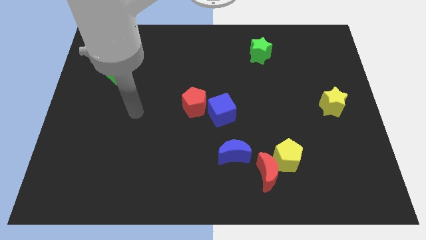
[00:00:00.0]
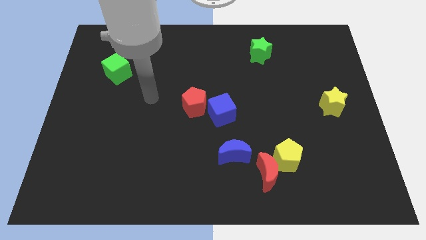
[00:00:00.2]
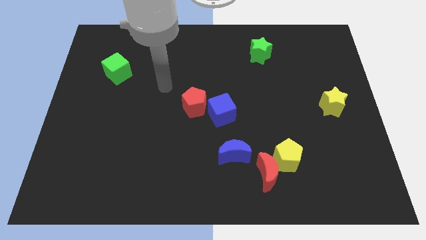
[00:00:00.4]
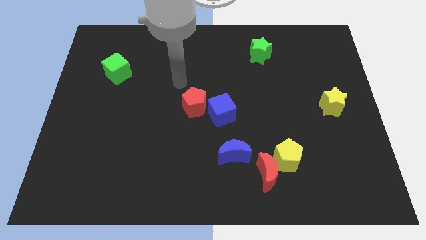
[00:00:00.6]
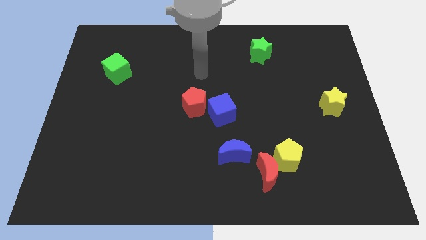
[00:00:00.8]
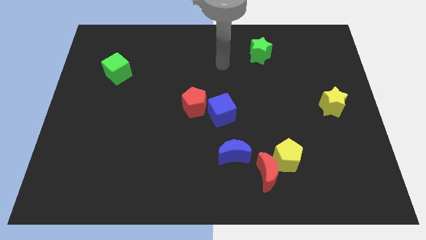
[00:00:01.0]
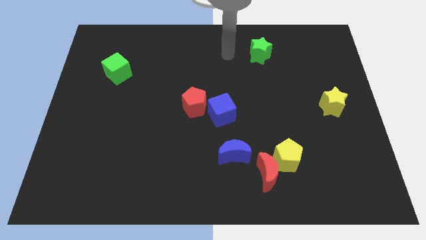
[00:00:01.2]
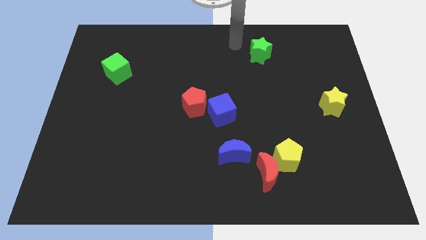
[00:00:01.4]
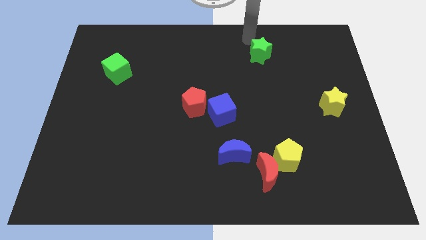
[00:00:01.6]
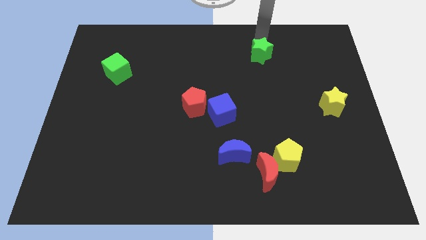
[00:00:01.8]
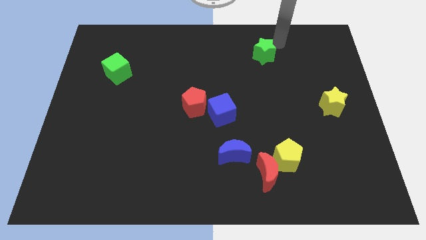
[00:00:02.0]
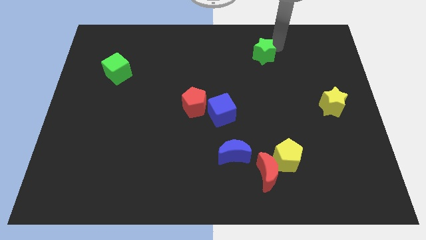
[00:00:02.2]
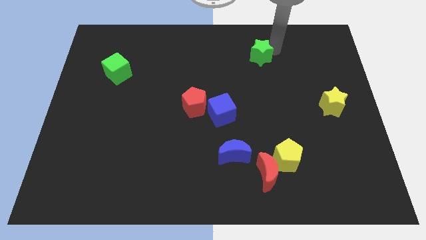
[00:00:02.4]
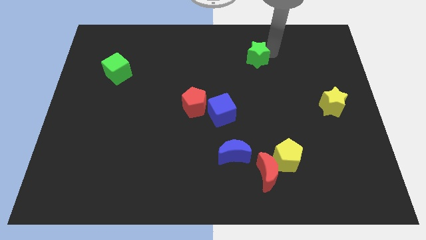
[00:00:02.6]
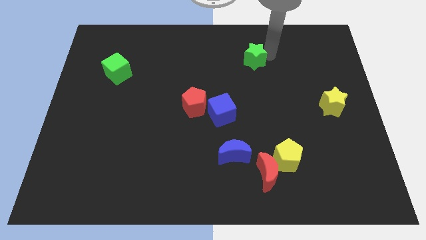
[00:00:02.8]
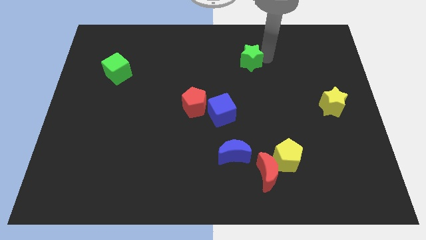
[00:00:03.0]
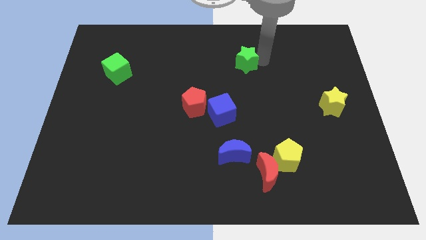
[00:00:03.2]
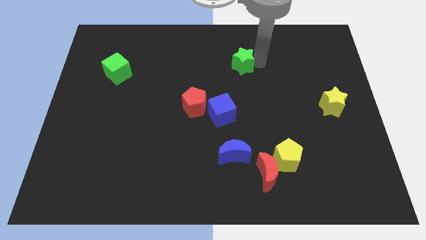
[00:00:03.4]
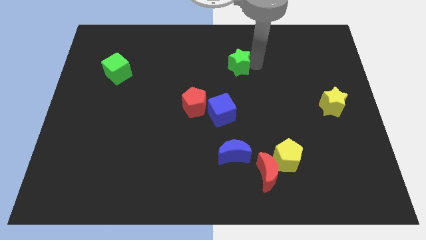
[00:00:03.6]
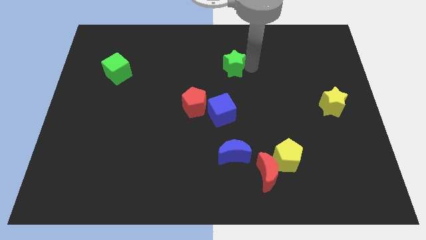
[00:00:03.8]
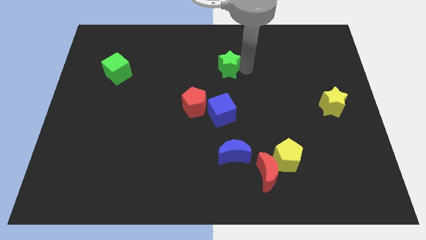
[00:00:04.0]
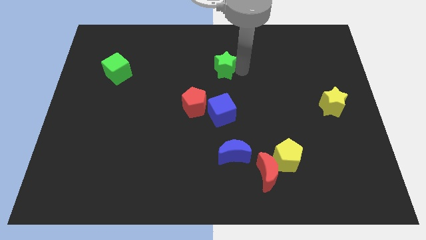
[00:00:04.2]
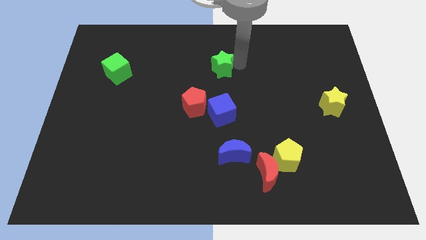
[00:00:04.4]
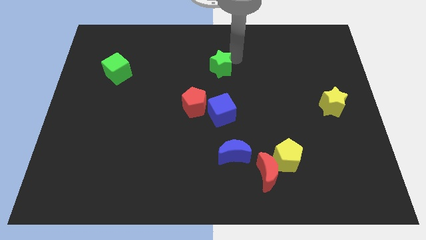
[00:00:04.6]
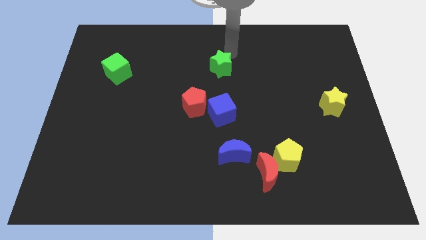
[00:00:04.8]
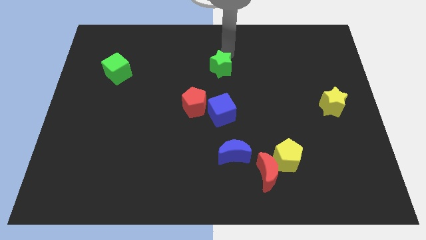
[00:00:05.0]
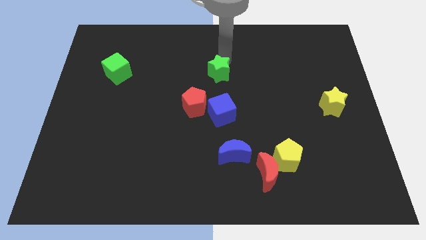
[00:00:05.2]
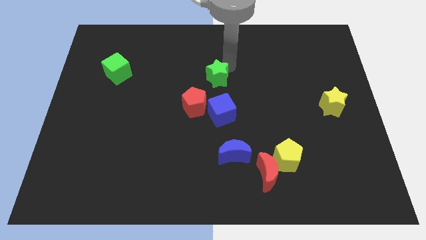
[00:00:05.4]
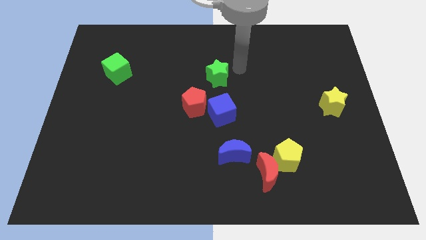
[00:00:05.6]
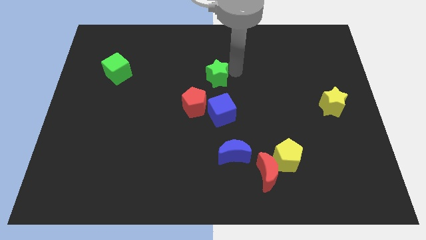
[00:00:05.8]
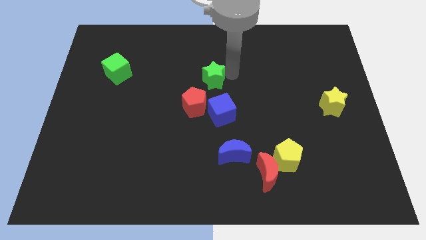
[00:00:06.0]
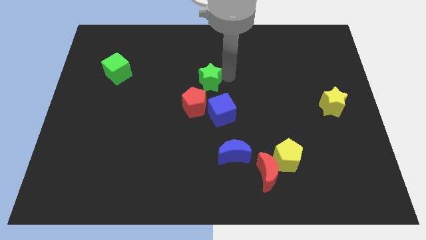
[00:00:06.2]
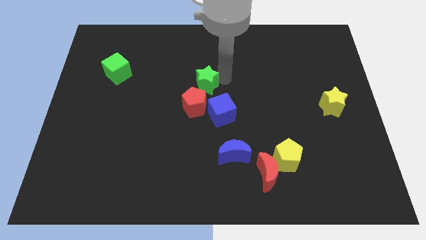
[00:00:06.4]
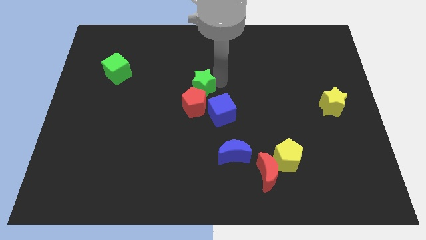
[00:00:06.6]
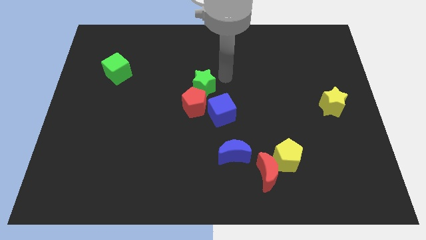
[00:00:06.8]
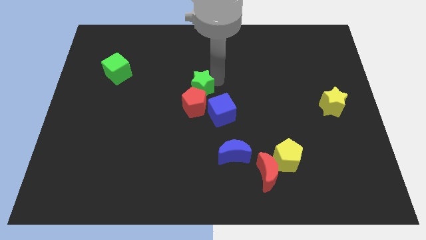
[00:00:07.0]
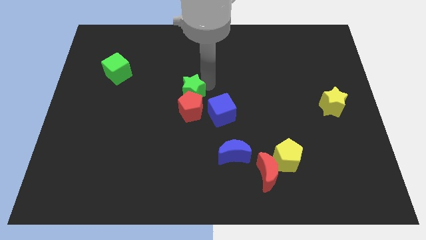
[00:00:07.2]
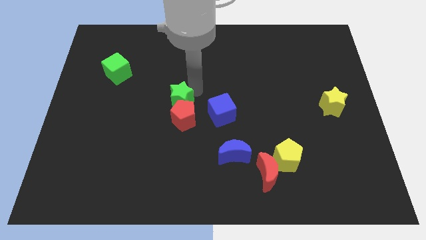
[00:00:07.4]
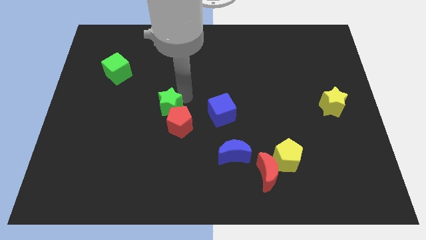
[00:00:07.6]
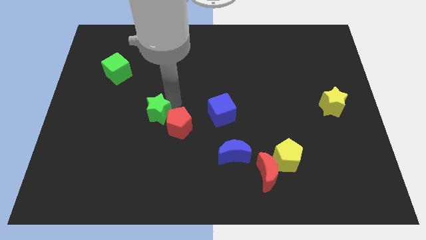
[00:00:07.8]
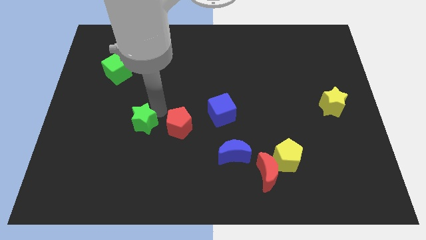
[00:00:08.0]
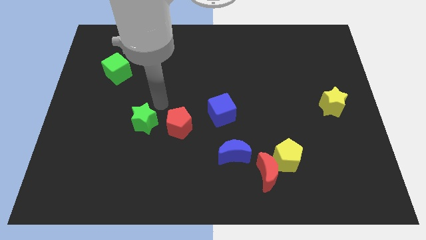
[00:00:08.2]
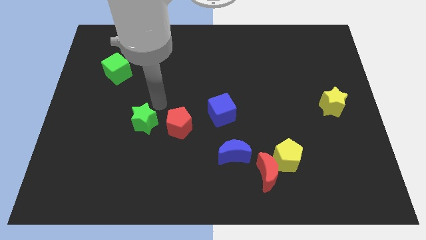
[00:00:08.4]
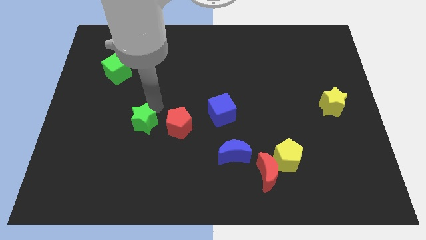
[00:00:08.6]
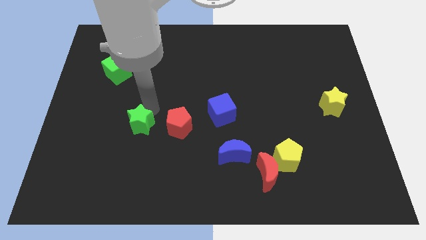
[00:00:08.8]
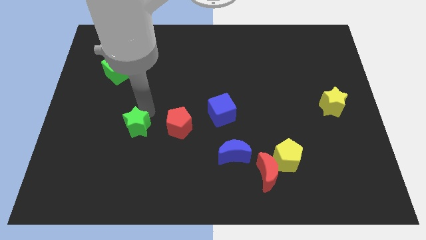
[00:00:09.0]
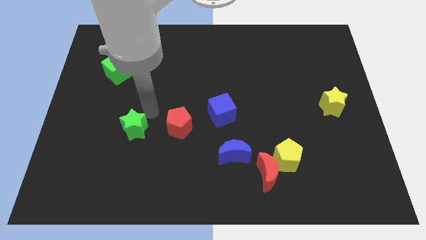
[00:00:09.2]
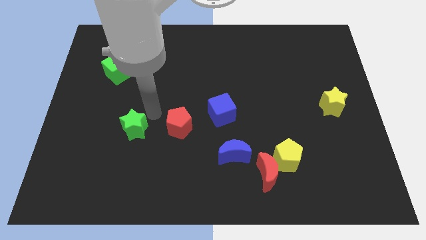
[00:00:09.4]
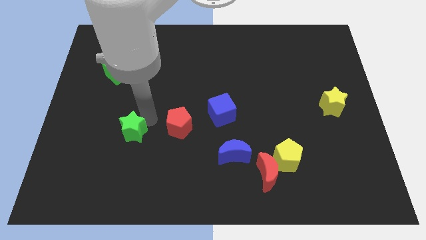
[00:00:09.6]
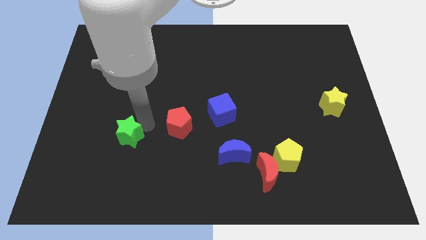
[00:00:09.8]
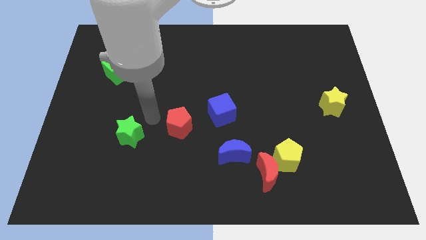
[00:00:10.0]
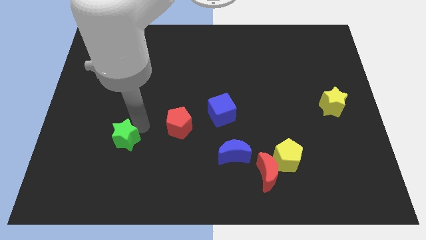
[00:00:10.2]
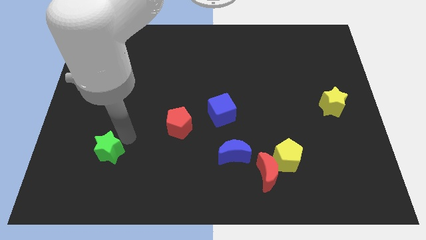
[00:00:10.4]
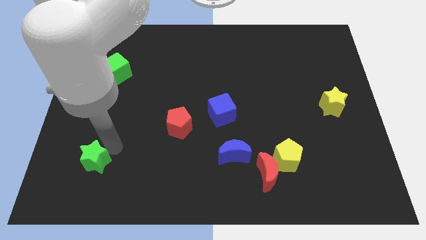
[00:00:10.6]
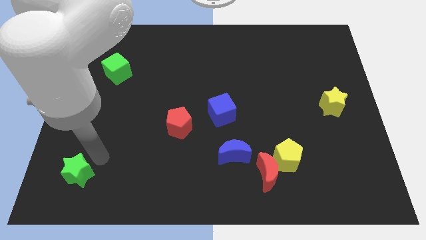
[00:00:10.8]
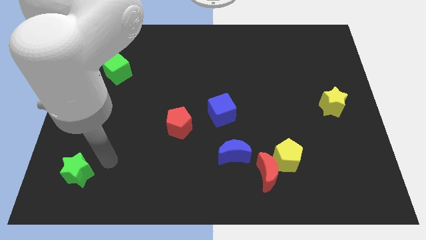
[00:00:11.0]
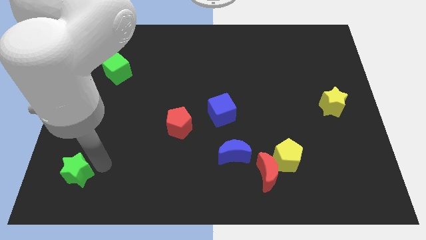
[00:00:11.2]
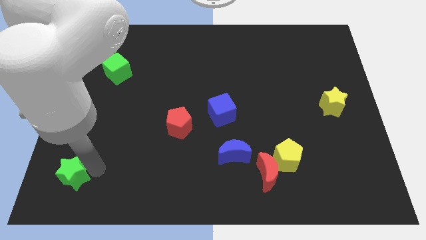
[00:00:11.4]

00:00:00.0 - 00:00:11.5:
put the green star to the bottom left

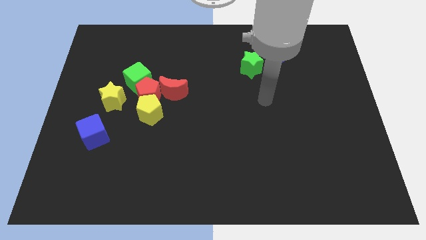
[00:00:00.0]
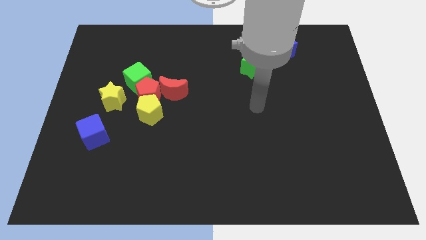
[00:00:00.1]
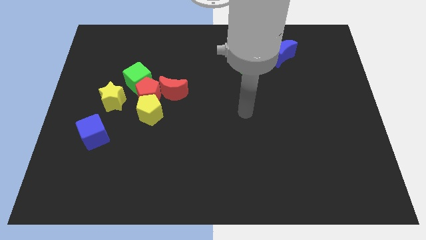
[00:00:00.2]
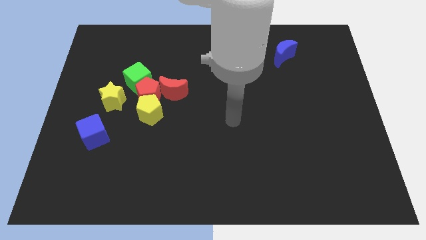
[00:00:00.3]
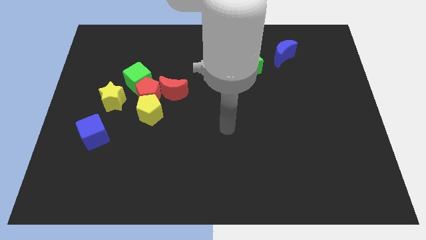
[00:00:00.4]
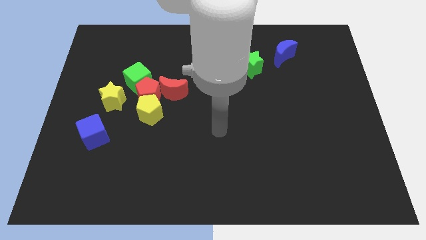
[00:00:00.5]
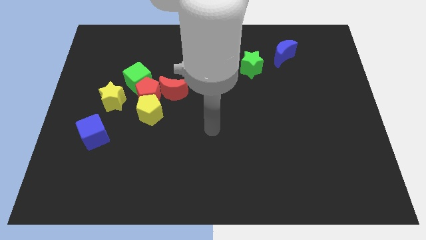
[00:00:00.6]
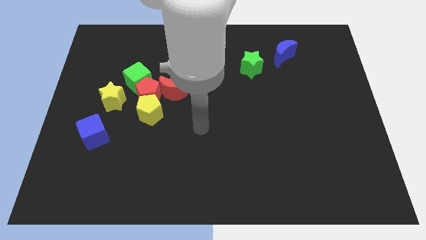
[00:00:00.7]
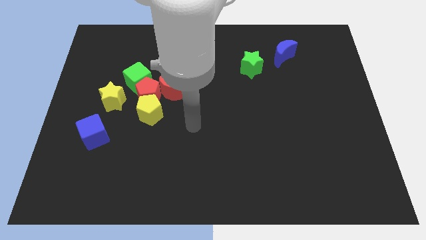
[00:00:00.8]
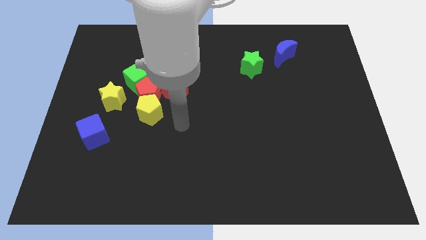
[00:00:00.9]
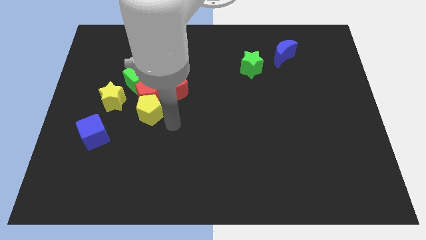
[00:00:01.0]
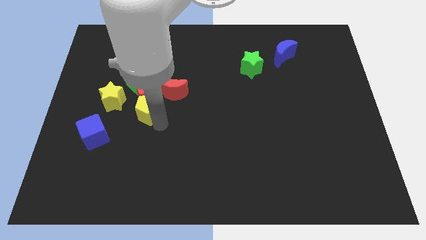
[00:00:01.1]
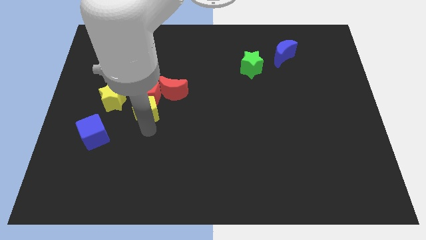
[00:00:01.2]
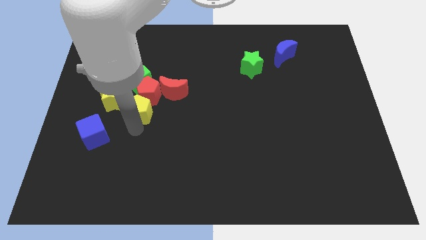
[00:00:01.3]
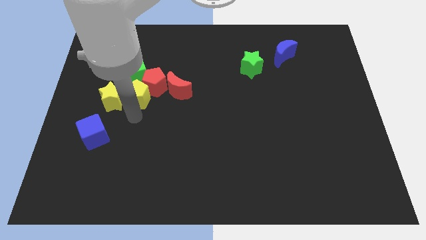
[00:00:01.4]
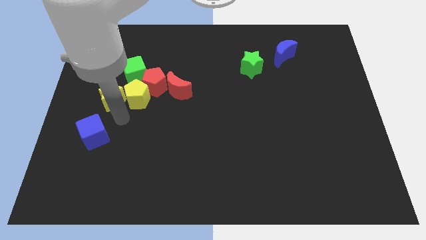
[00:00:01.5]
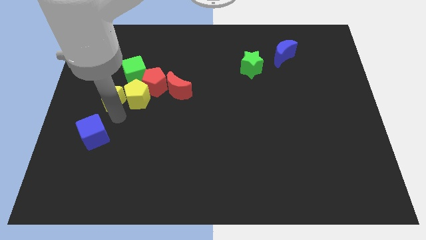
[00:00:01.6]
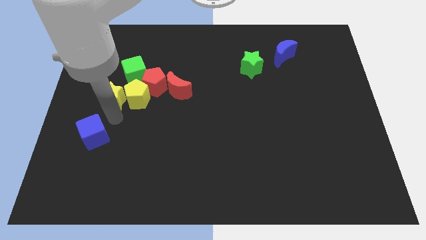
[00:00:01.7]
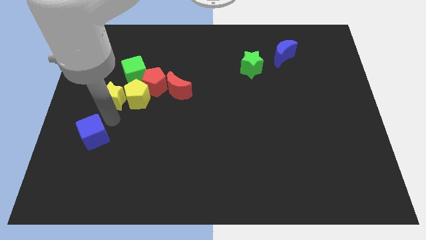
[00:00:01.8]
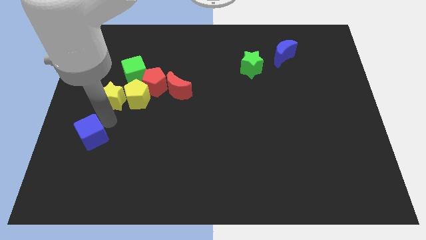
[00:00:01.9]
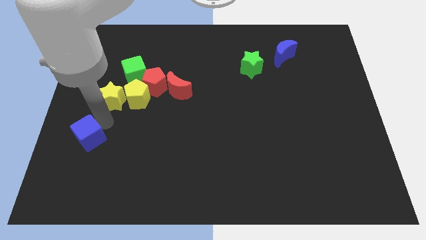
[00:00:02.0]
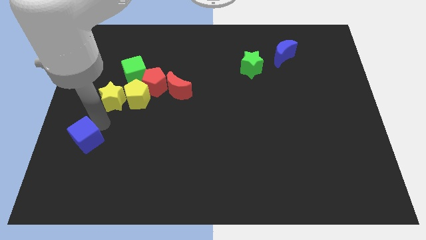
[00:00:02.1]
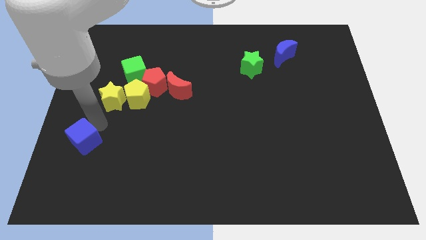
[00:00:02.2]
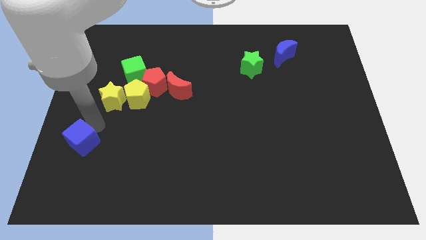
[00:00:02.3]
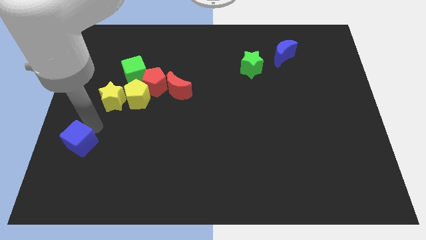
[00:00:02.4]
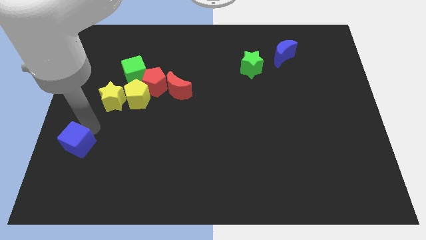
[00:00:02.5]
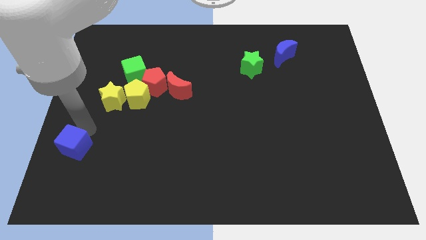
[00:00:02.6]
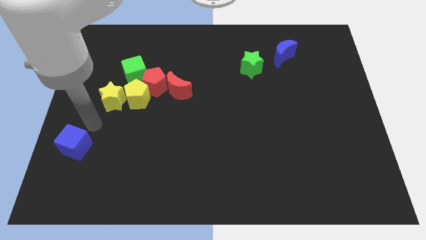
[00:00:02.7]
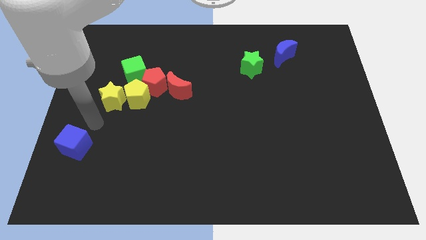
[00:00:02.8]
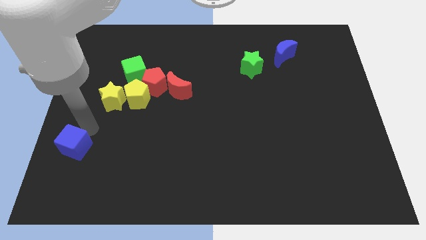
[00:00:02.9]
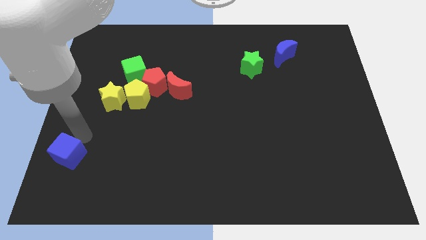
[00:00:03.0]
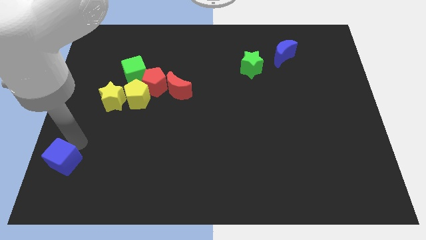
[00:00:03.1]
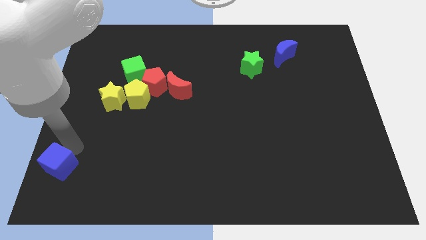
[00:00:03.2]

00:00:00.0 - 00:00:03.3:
put the blue cube to the lower left corner
